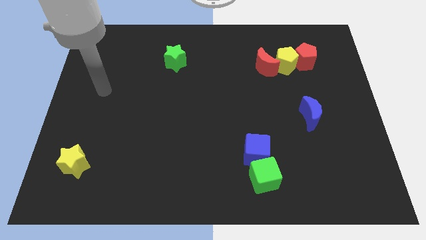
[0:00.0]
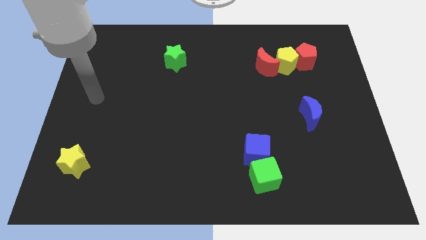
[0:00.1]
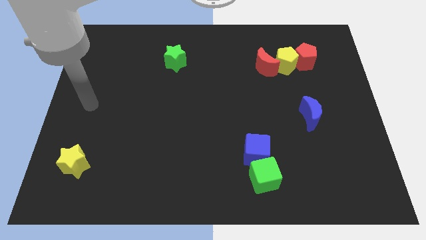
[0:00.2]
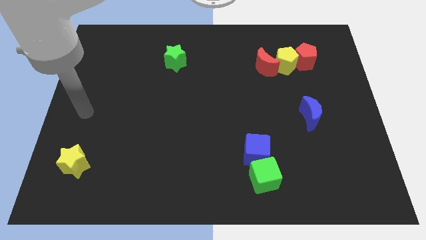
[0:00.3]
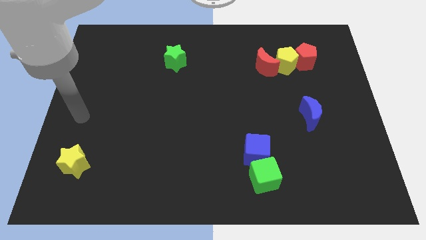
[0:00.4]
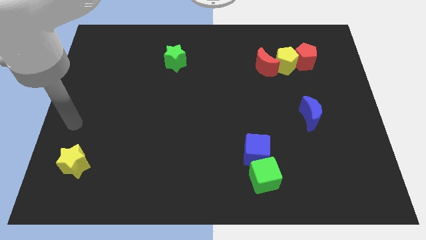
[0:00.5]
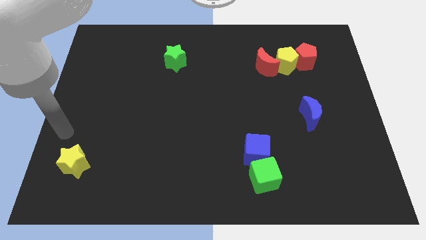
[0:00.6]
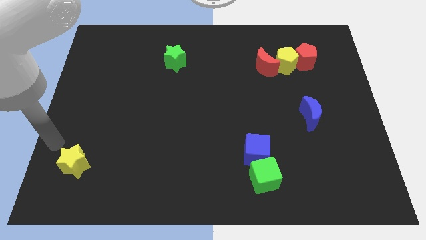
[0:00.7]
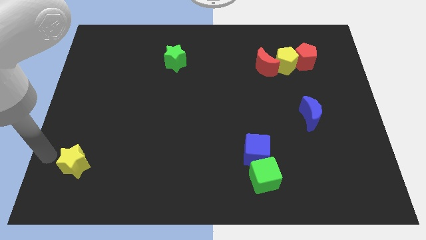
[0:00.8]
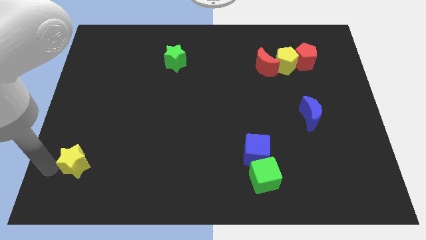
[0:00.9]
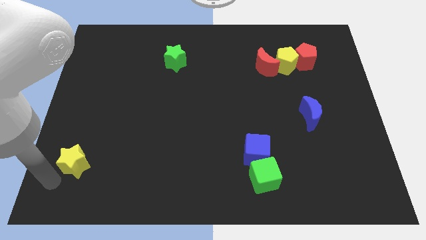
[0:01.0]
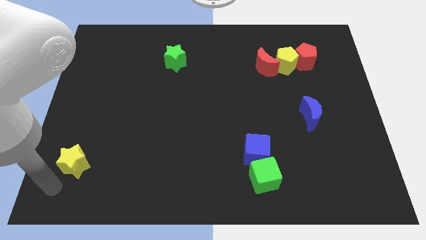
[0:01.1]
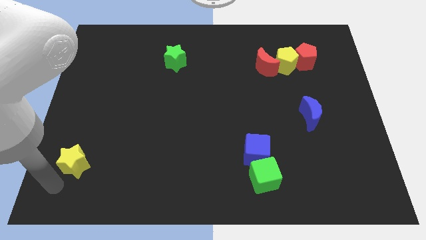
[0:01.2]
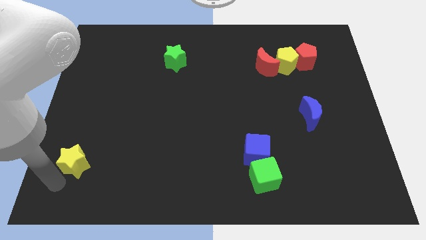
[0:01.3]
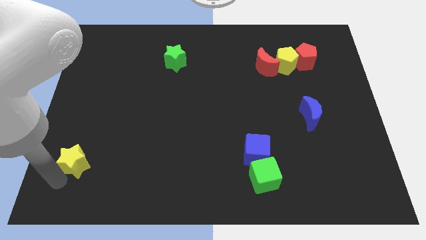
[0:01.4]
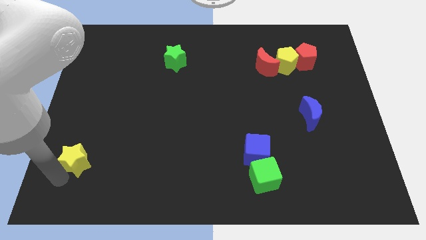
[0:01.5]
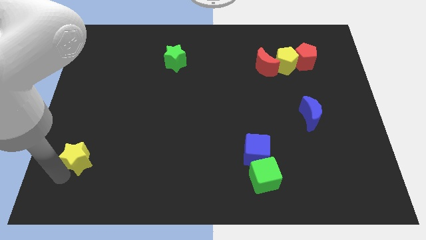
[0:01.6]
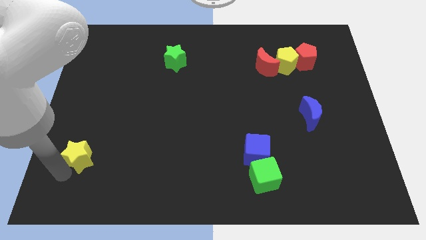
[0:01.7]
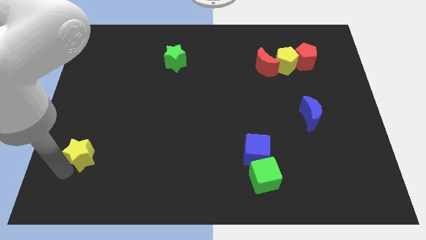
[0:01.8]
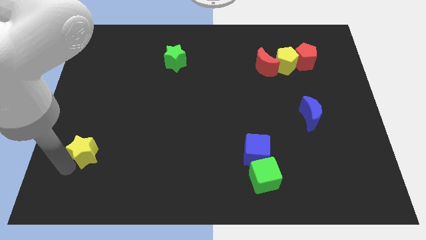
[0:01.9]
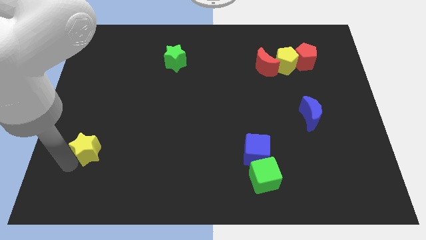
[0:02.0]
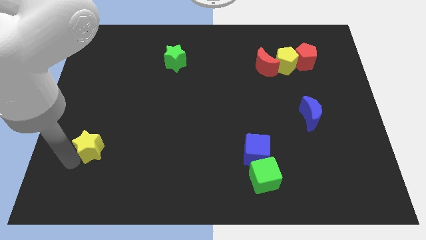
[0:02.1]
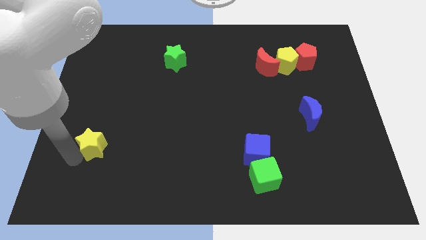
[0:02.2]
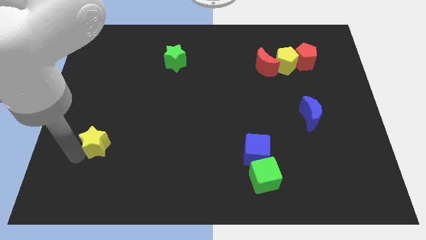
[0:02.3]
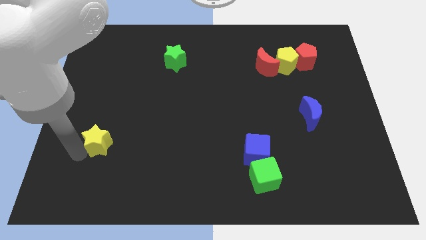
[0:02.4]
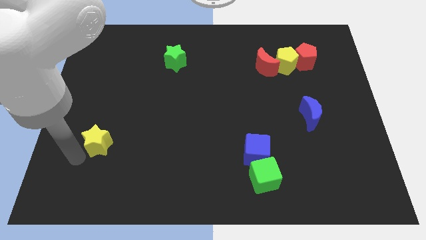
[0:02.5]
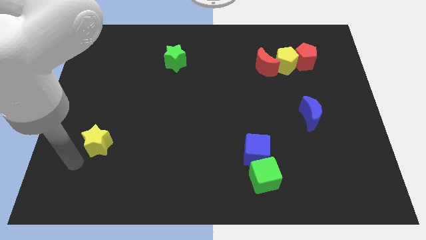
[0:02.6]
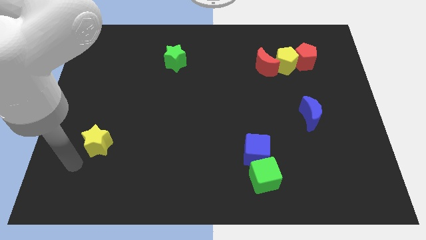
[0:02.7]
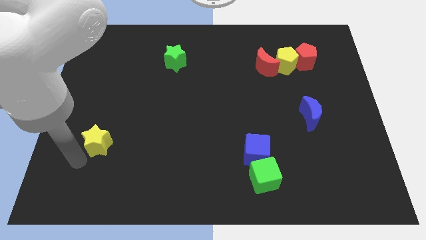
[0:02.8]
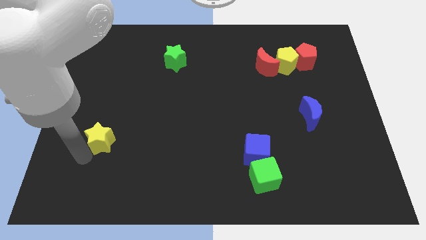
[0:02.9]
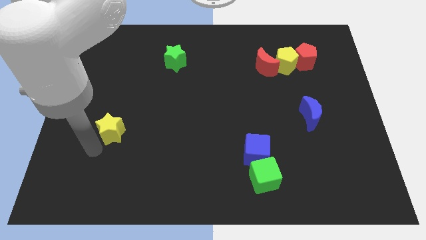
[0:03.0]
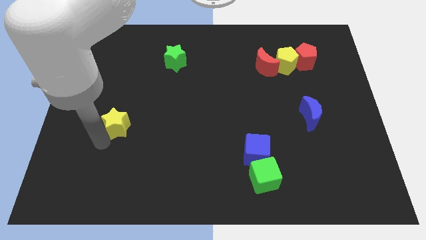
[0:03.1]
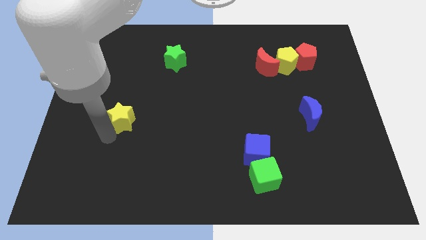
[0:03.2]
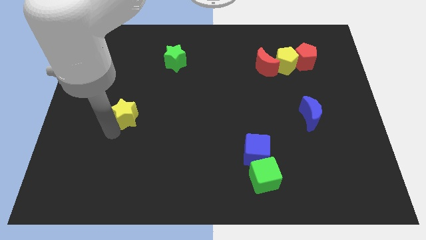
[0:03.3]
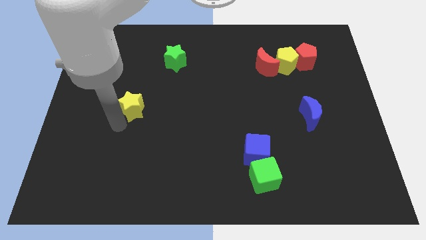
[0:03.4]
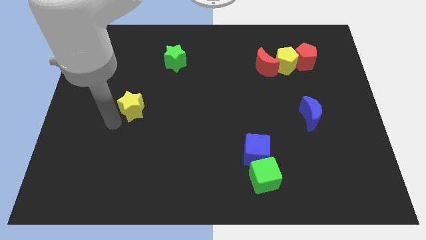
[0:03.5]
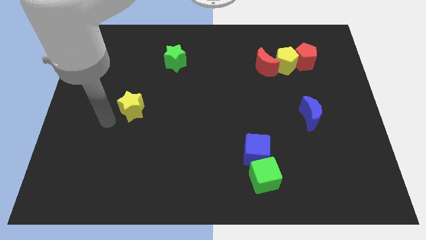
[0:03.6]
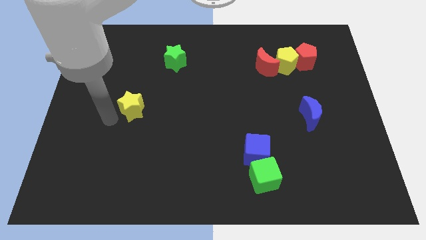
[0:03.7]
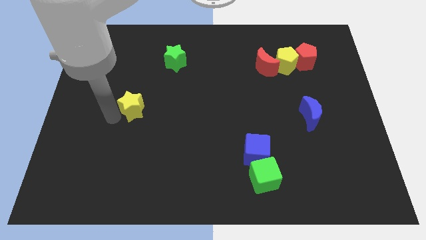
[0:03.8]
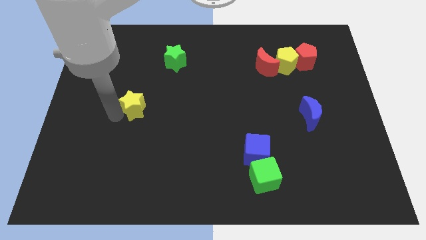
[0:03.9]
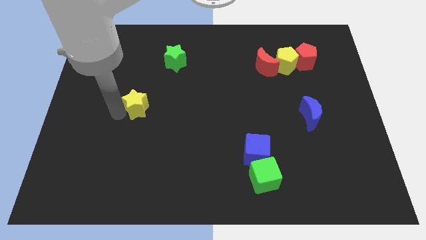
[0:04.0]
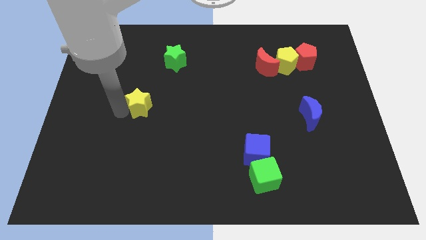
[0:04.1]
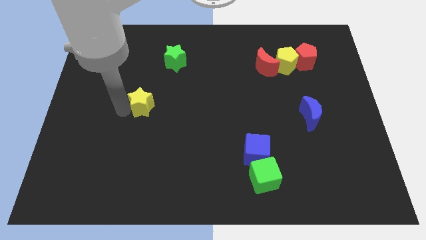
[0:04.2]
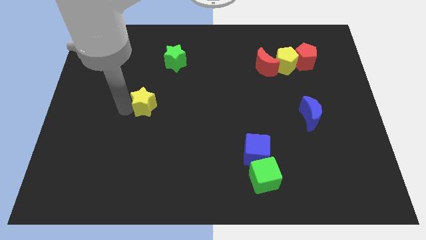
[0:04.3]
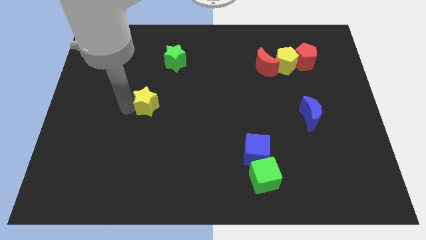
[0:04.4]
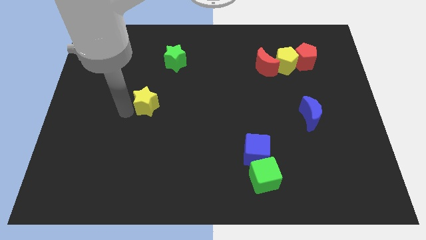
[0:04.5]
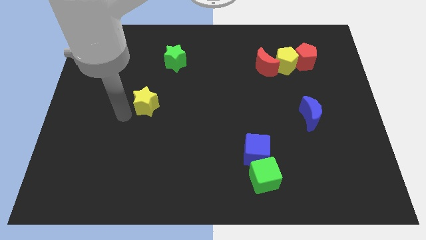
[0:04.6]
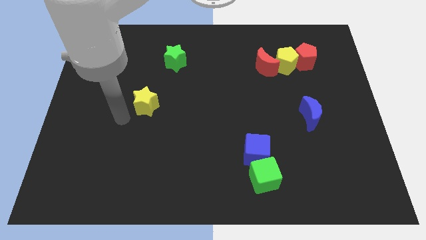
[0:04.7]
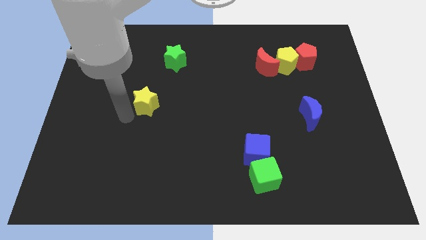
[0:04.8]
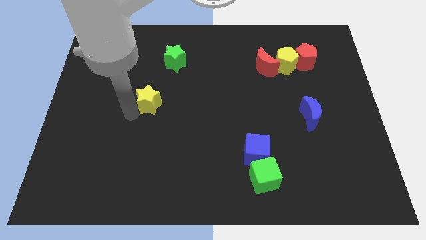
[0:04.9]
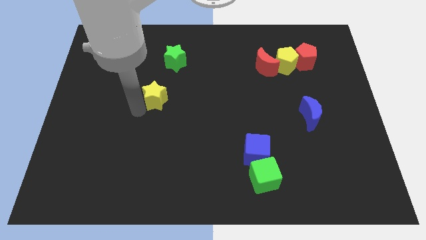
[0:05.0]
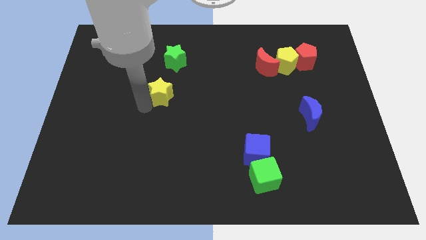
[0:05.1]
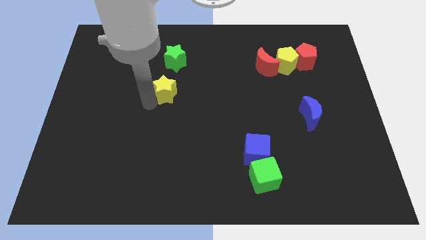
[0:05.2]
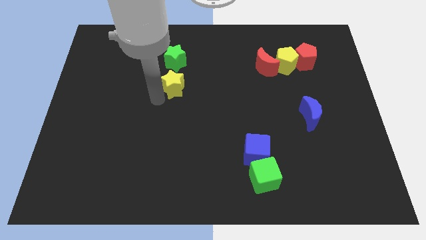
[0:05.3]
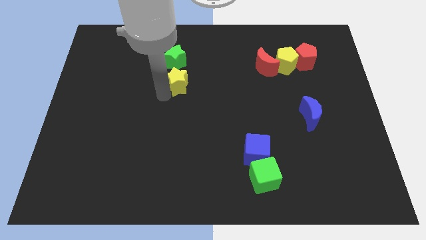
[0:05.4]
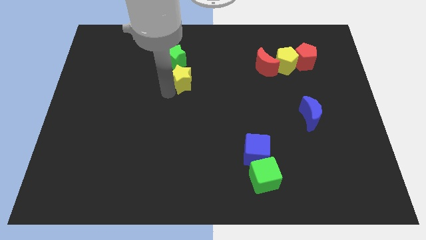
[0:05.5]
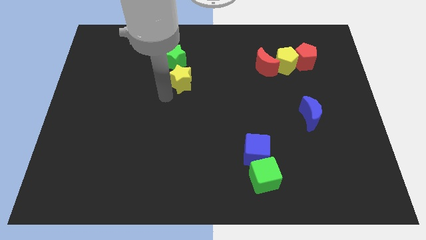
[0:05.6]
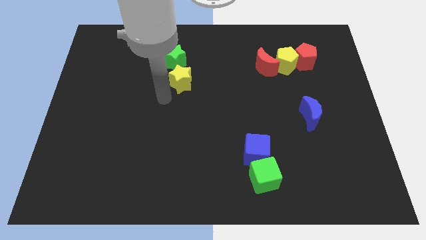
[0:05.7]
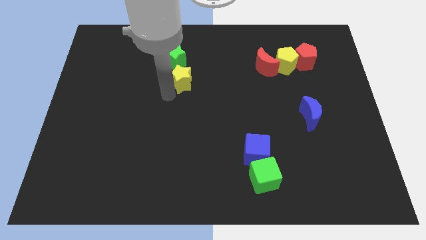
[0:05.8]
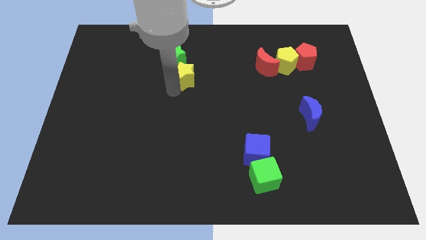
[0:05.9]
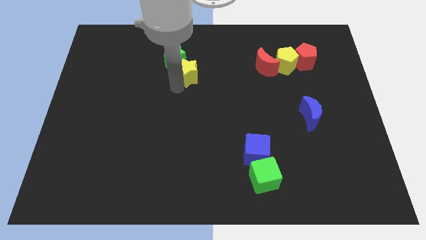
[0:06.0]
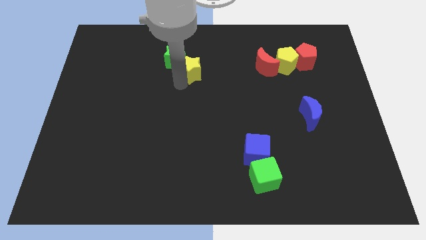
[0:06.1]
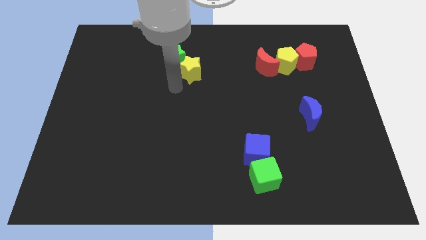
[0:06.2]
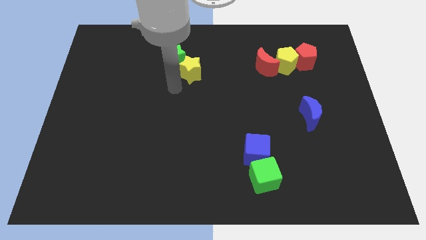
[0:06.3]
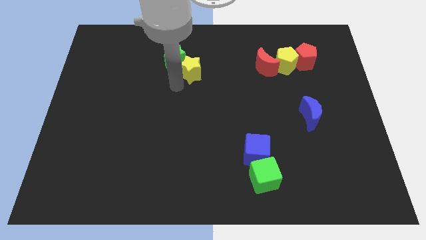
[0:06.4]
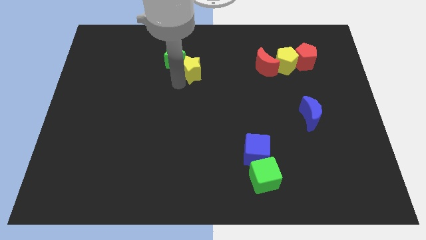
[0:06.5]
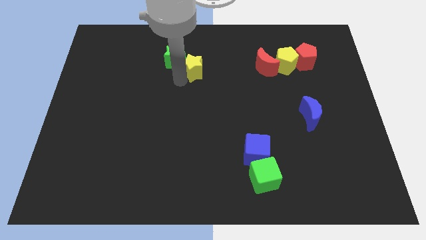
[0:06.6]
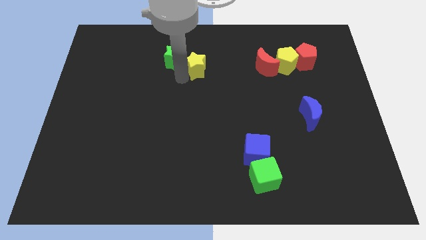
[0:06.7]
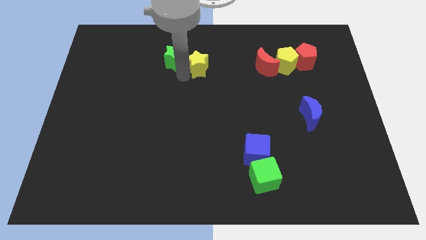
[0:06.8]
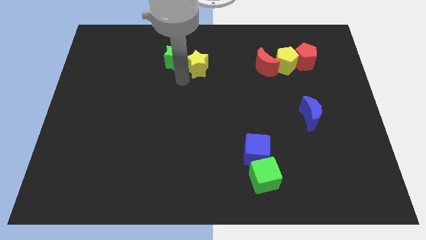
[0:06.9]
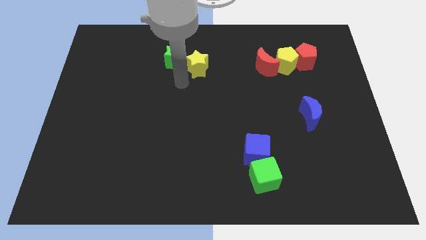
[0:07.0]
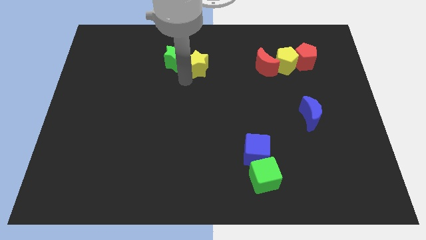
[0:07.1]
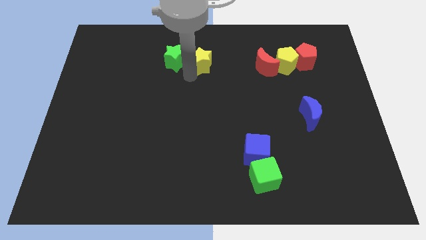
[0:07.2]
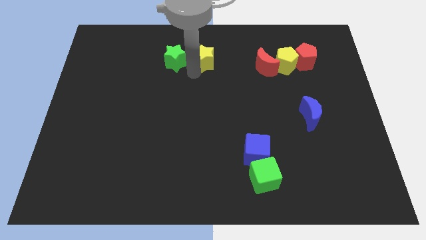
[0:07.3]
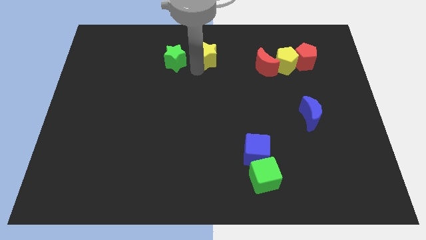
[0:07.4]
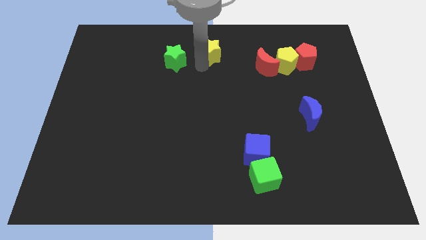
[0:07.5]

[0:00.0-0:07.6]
put the yellow star to the top side

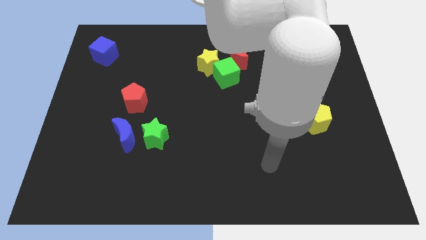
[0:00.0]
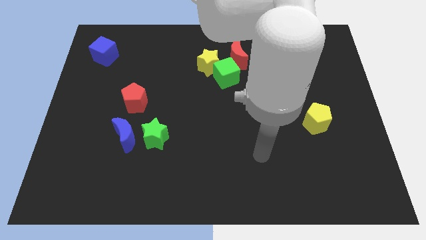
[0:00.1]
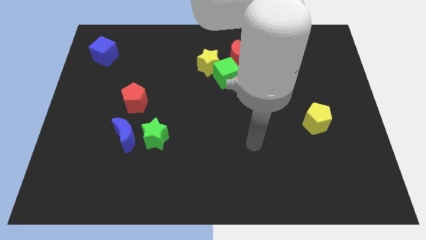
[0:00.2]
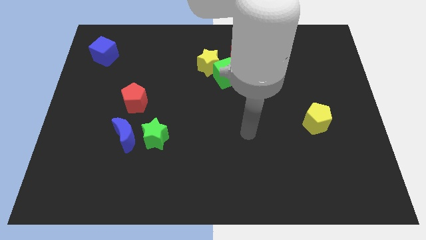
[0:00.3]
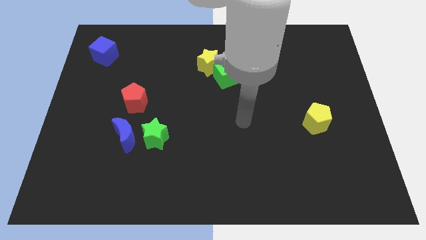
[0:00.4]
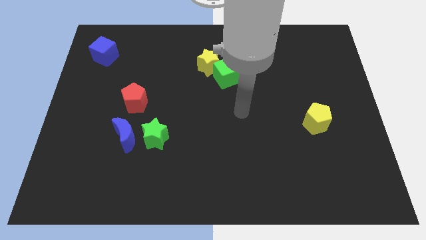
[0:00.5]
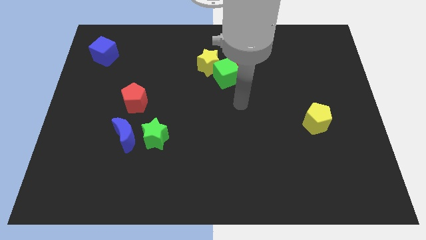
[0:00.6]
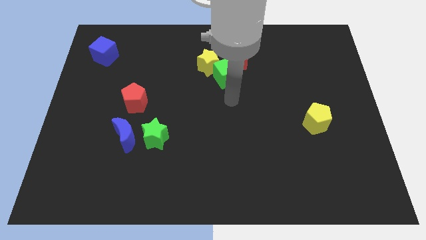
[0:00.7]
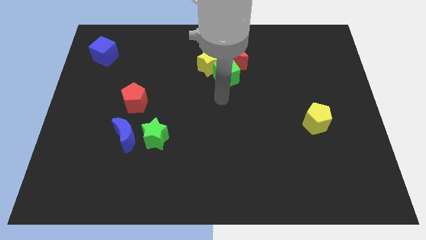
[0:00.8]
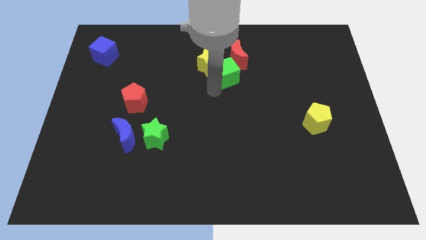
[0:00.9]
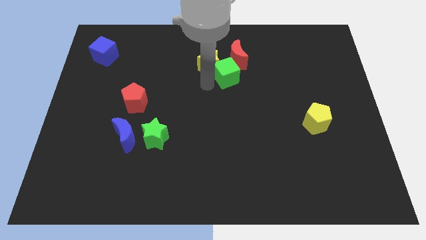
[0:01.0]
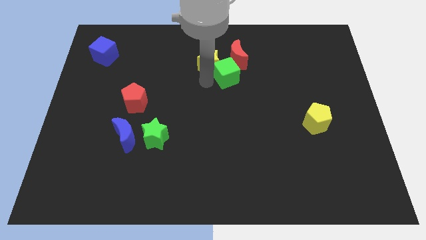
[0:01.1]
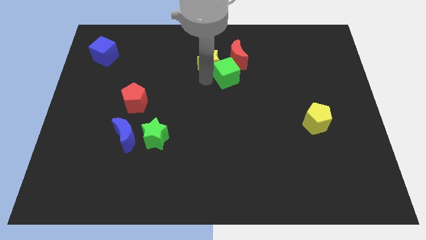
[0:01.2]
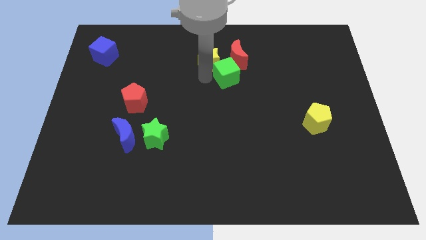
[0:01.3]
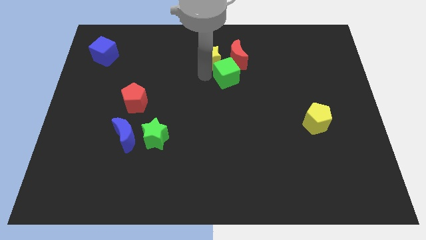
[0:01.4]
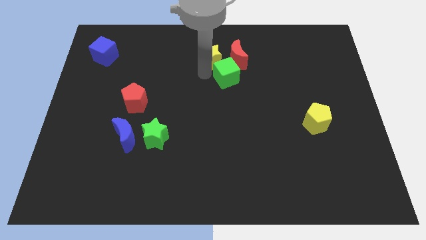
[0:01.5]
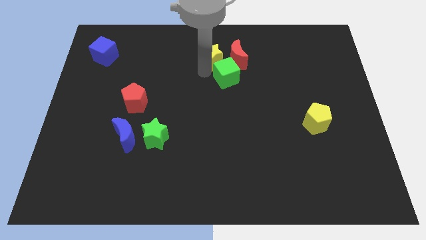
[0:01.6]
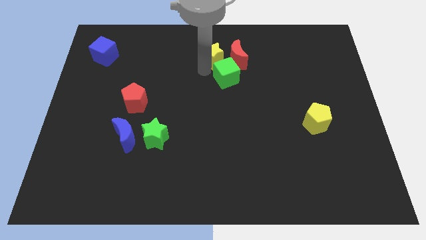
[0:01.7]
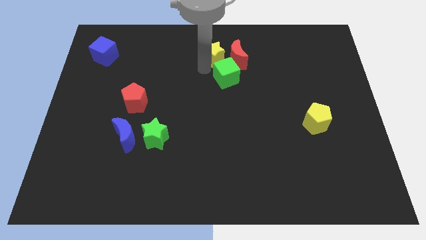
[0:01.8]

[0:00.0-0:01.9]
move the yellow star to the top
